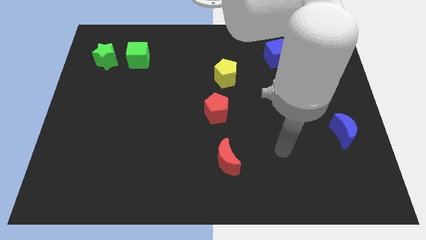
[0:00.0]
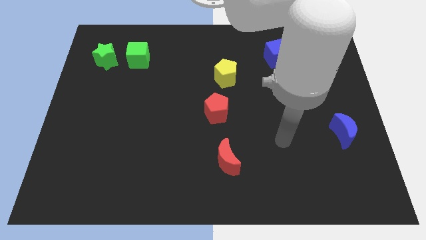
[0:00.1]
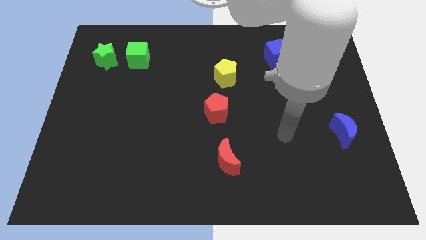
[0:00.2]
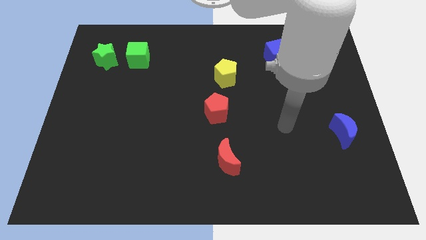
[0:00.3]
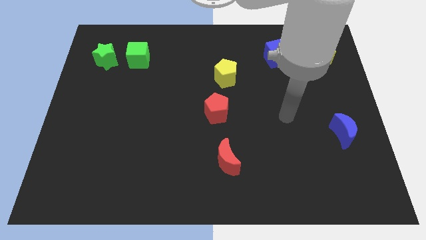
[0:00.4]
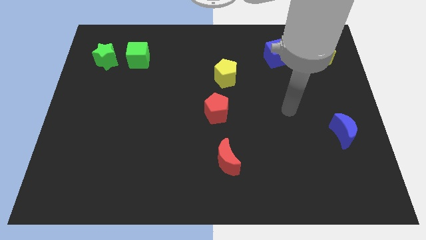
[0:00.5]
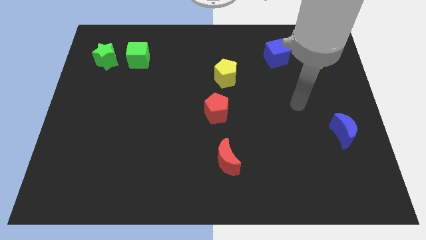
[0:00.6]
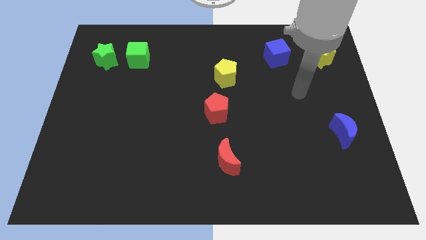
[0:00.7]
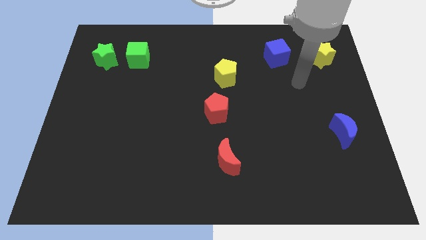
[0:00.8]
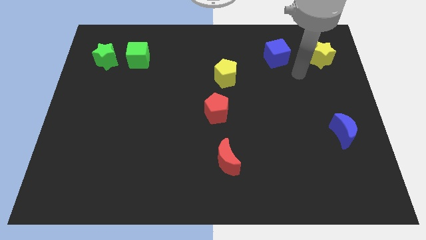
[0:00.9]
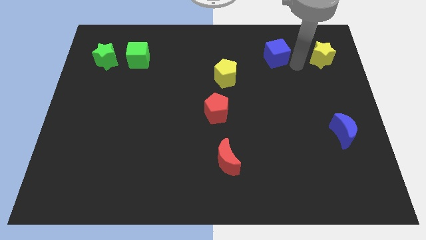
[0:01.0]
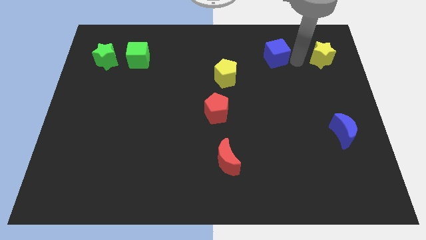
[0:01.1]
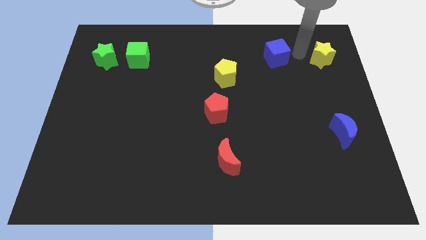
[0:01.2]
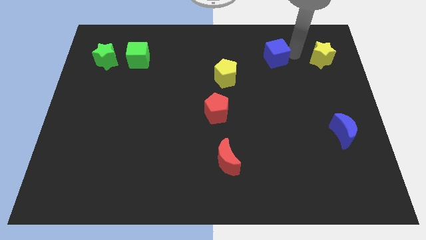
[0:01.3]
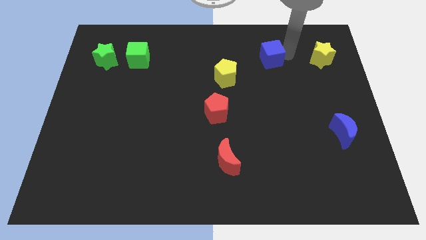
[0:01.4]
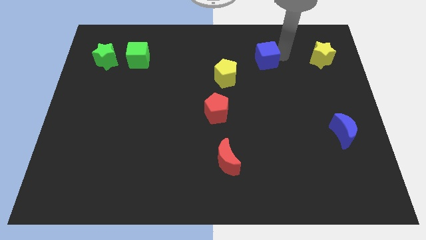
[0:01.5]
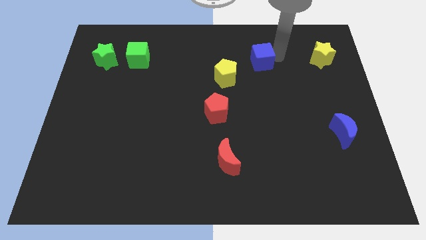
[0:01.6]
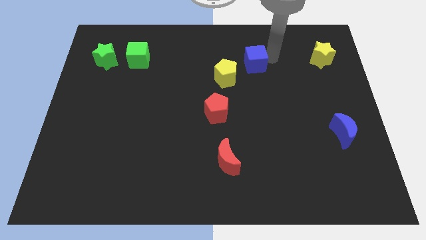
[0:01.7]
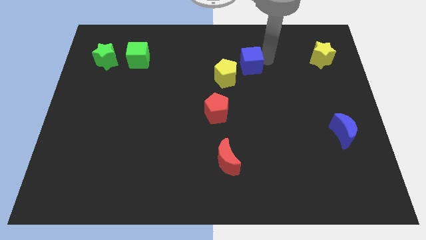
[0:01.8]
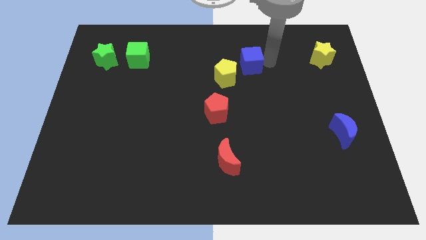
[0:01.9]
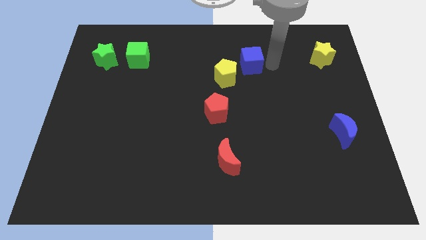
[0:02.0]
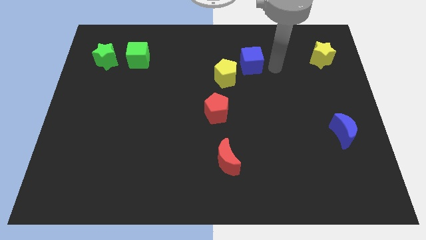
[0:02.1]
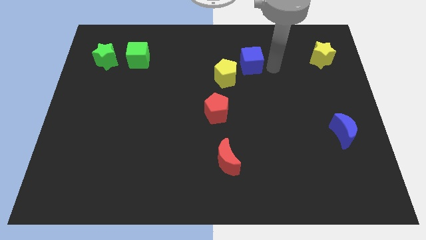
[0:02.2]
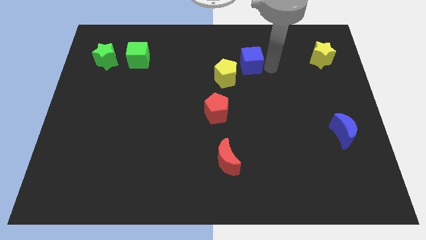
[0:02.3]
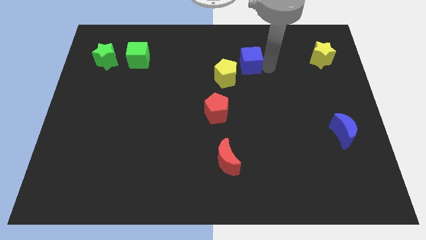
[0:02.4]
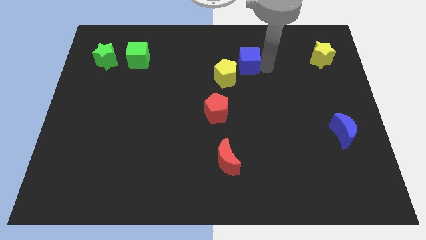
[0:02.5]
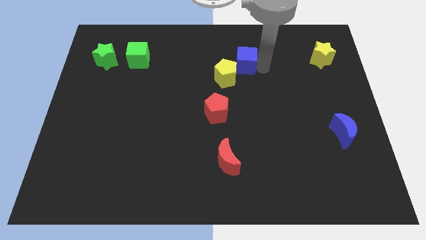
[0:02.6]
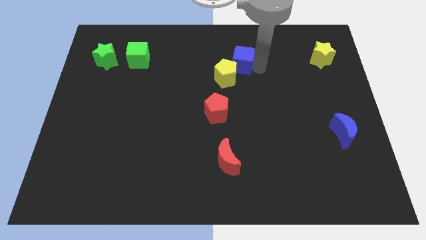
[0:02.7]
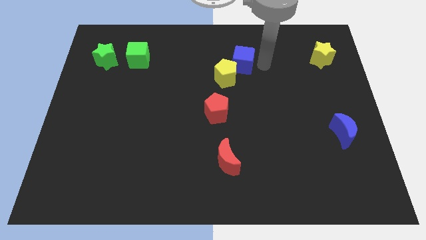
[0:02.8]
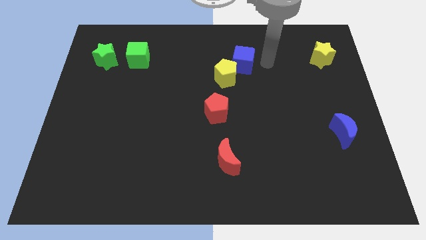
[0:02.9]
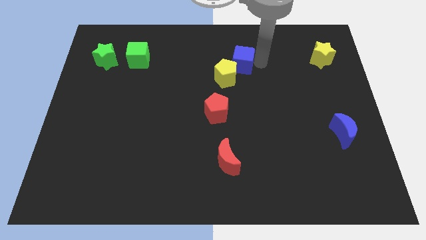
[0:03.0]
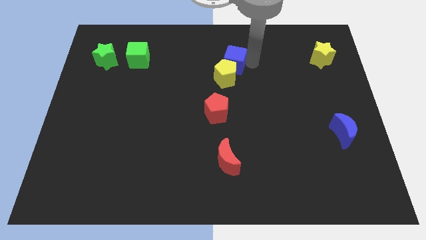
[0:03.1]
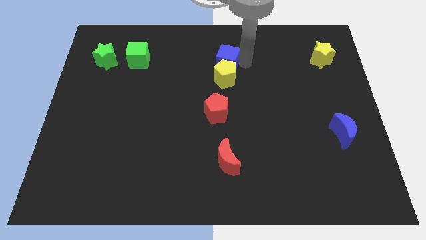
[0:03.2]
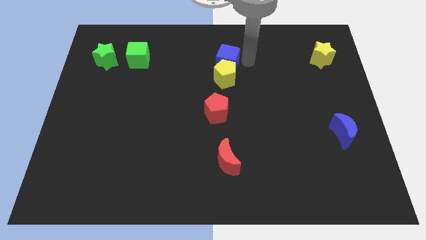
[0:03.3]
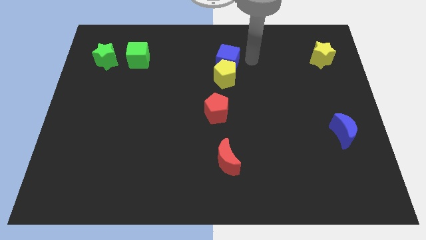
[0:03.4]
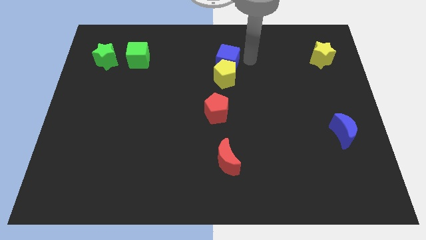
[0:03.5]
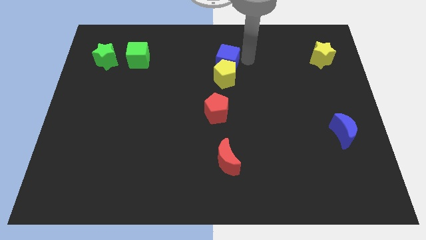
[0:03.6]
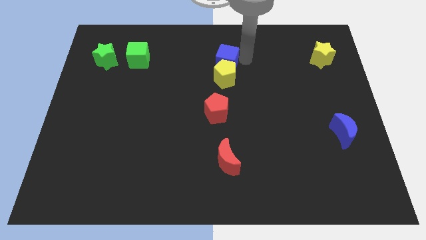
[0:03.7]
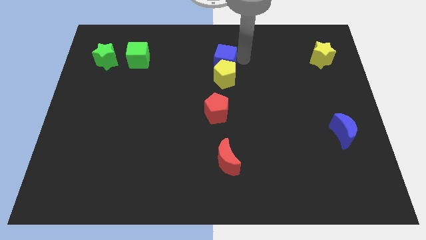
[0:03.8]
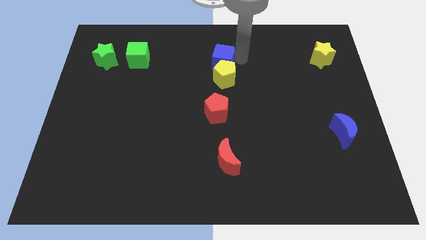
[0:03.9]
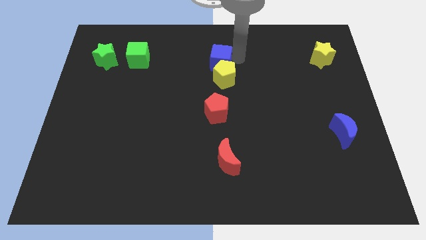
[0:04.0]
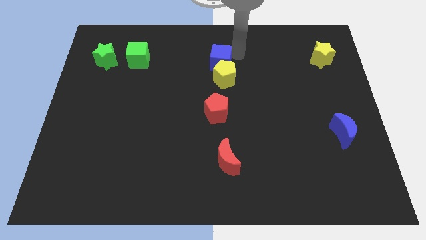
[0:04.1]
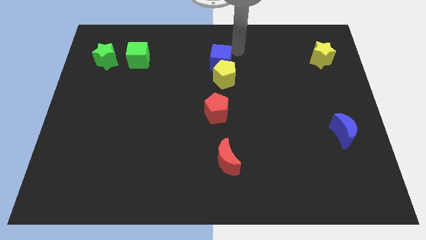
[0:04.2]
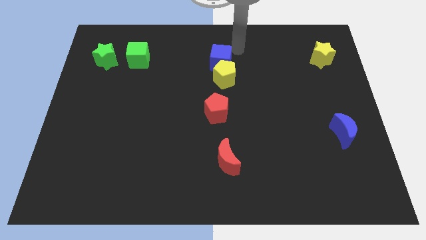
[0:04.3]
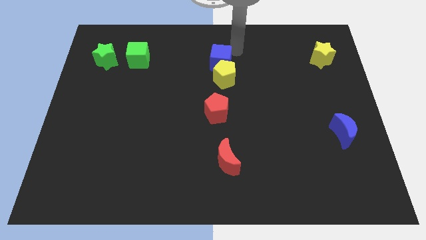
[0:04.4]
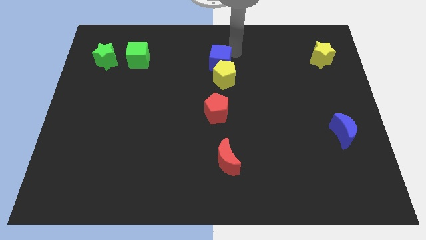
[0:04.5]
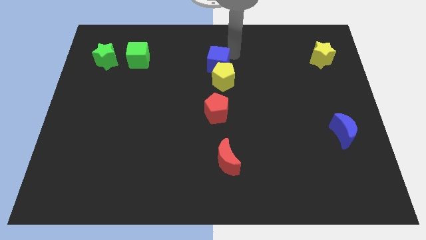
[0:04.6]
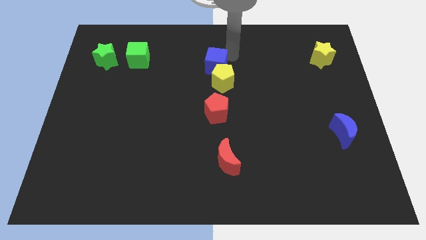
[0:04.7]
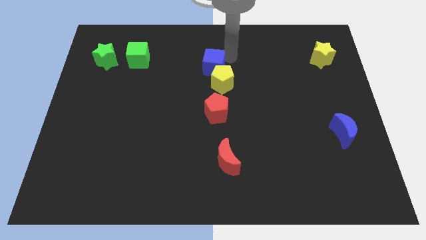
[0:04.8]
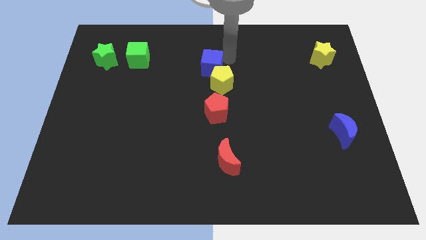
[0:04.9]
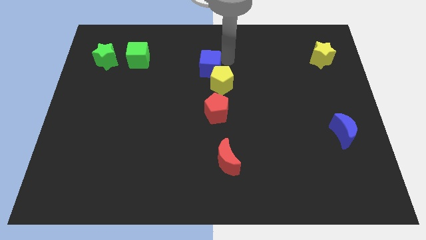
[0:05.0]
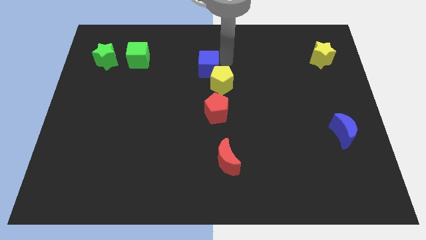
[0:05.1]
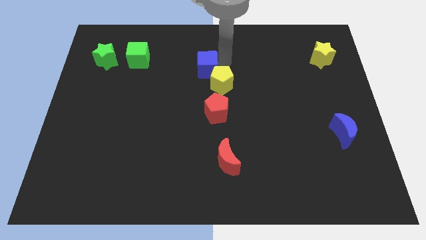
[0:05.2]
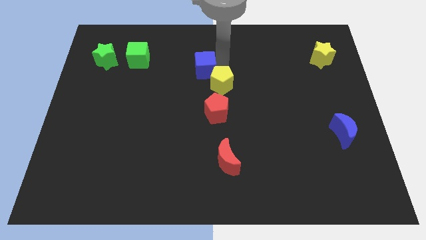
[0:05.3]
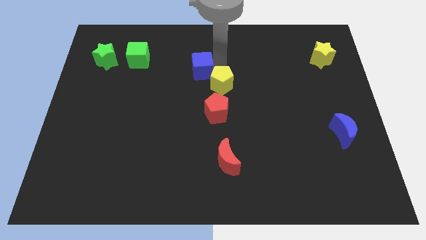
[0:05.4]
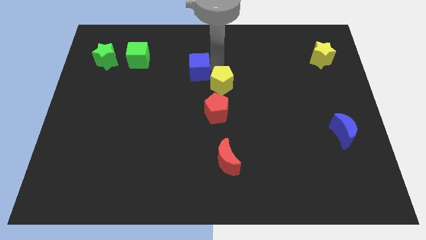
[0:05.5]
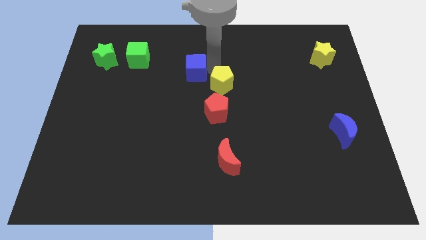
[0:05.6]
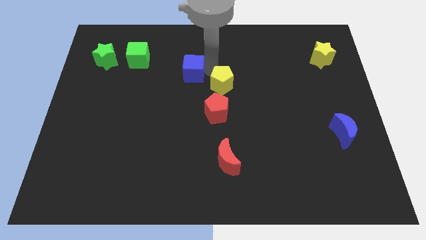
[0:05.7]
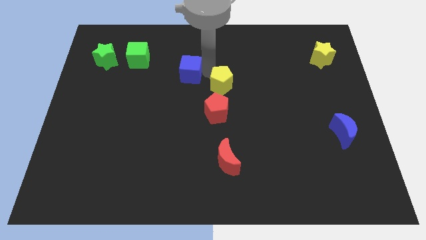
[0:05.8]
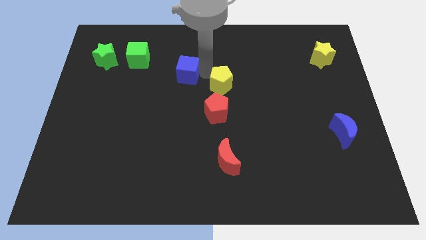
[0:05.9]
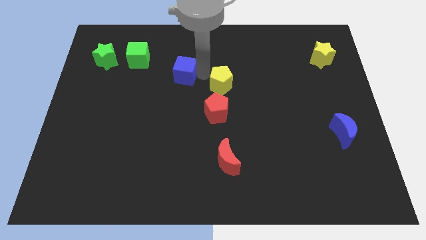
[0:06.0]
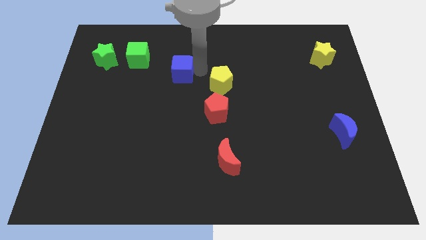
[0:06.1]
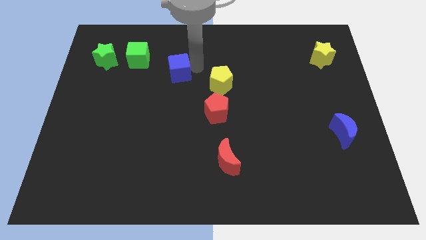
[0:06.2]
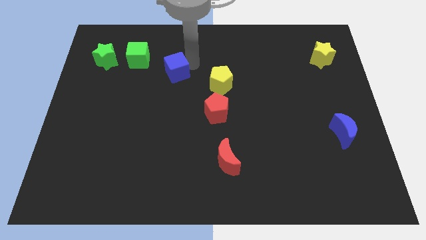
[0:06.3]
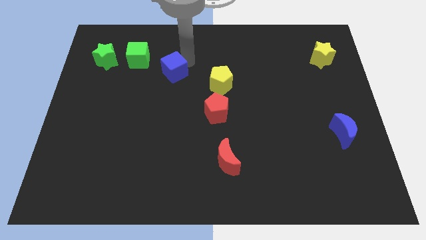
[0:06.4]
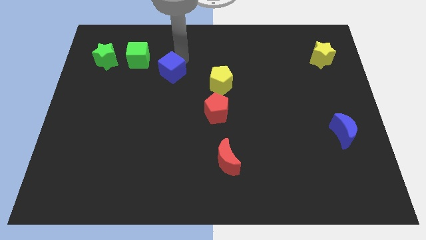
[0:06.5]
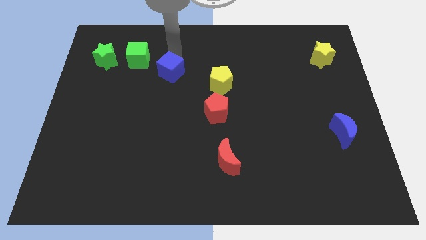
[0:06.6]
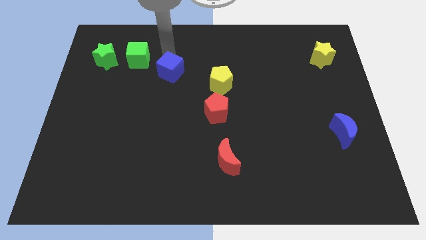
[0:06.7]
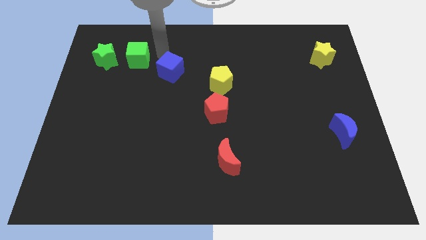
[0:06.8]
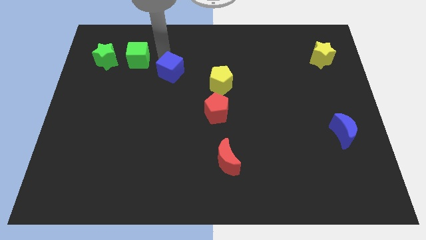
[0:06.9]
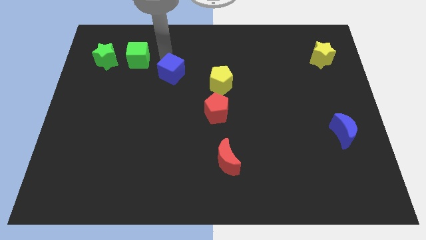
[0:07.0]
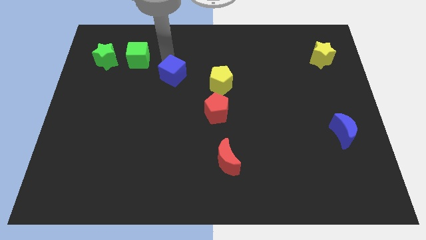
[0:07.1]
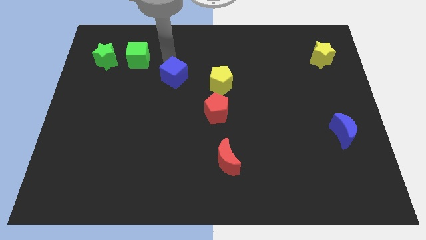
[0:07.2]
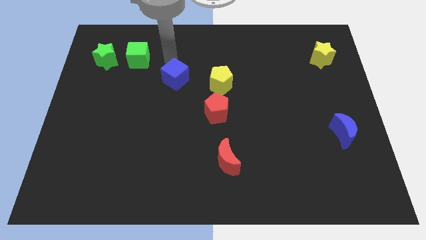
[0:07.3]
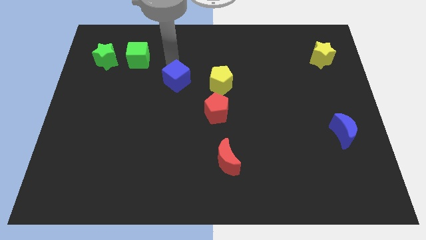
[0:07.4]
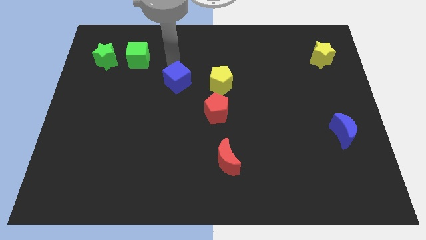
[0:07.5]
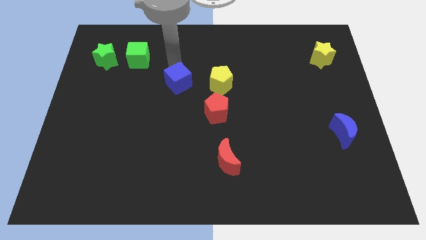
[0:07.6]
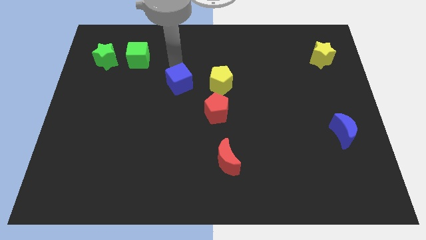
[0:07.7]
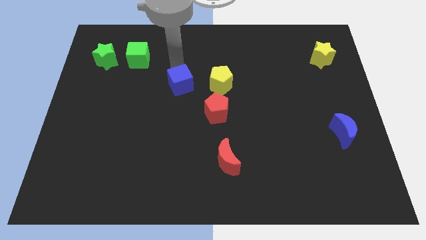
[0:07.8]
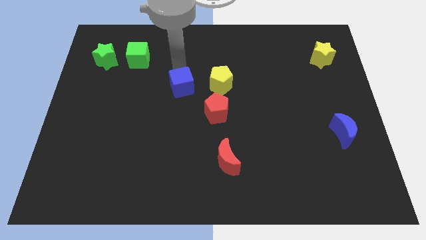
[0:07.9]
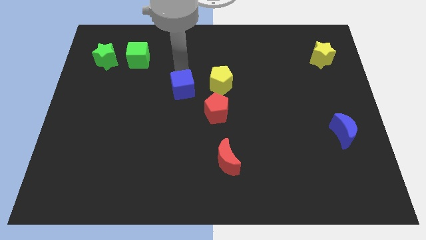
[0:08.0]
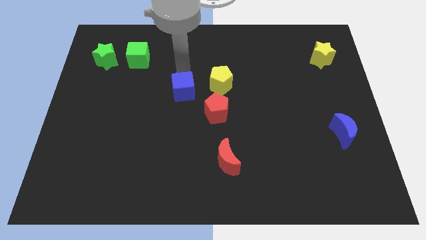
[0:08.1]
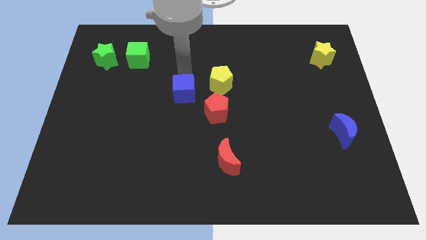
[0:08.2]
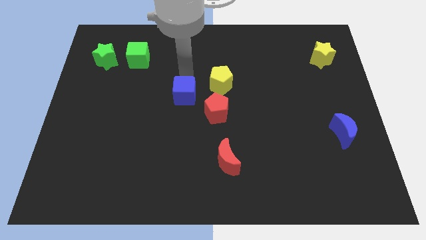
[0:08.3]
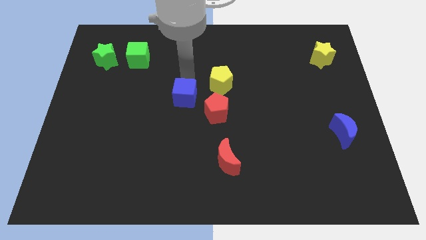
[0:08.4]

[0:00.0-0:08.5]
push the blue cube just left of the red pentagon
